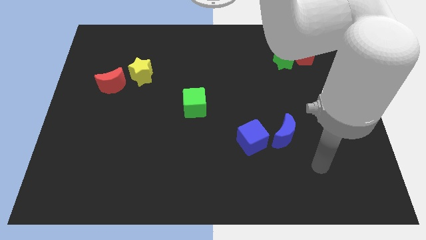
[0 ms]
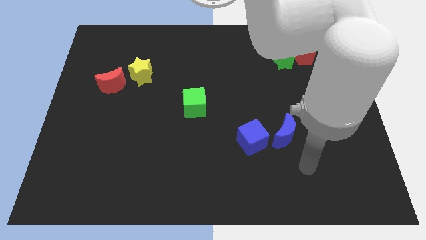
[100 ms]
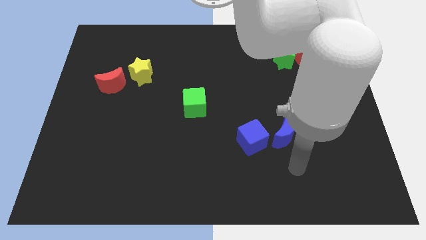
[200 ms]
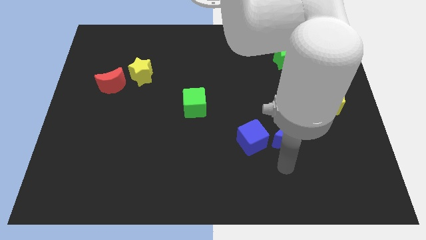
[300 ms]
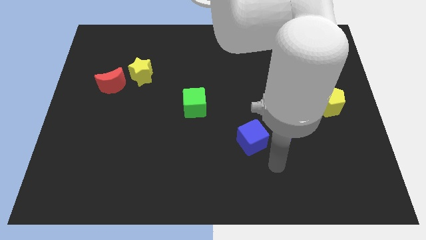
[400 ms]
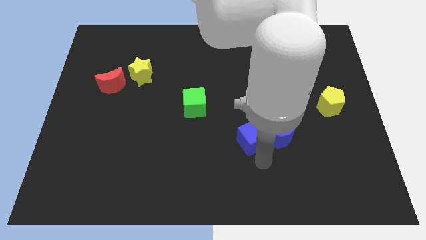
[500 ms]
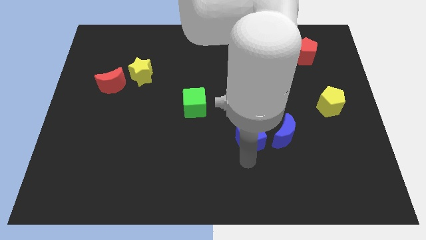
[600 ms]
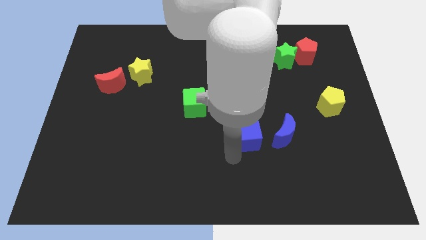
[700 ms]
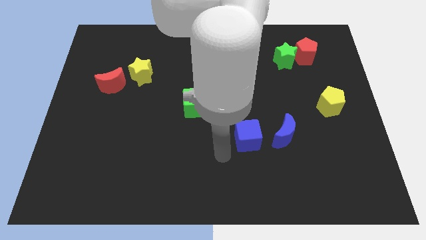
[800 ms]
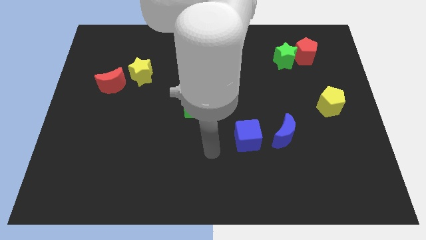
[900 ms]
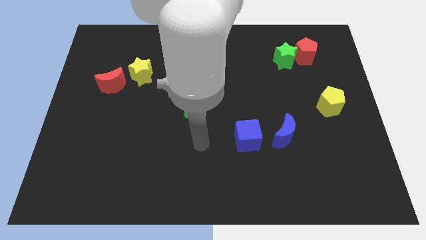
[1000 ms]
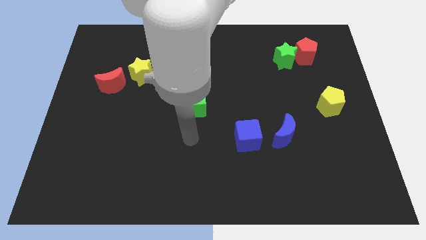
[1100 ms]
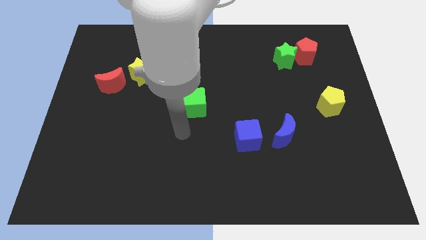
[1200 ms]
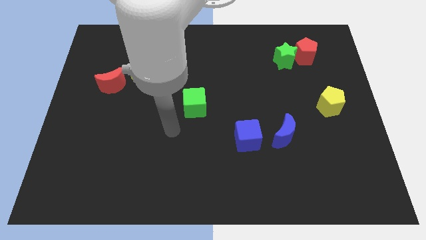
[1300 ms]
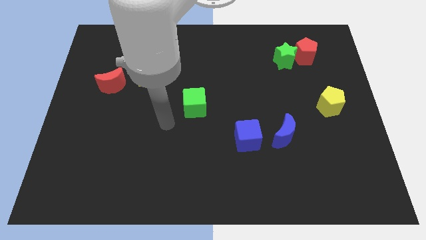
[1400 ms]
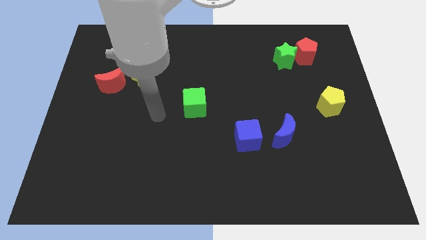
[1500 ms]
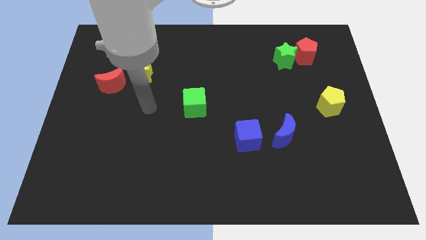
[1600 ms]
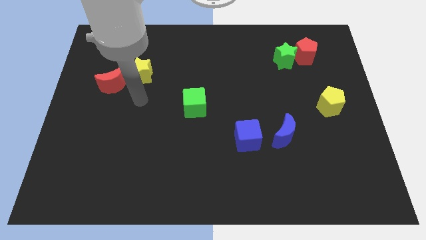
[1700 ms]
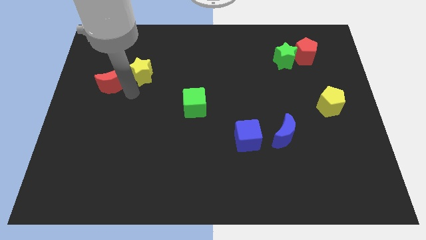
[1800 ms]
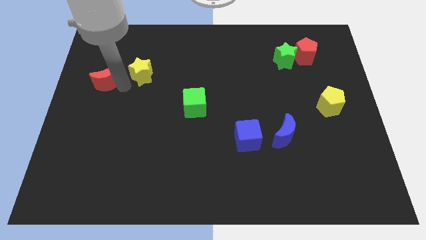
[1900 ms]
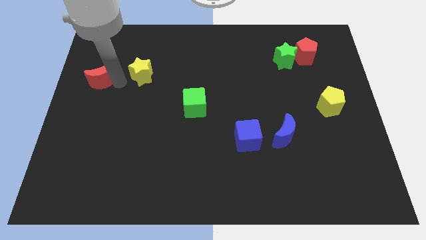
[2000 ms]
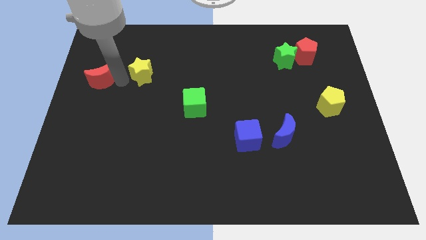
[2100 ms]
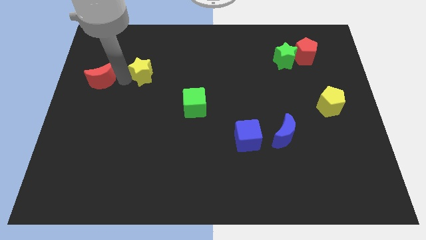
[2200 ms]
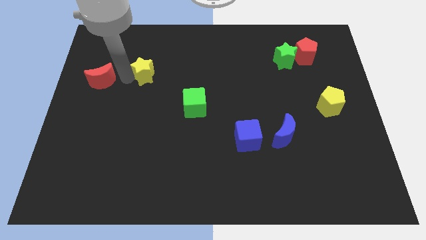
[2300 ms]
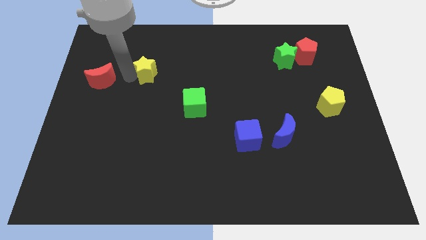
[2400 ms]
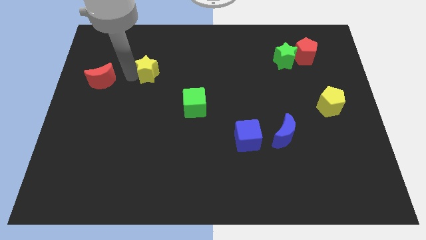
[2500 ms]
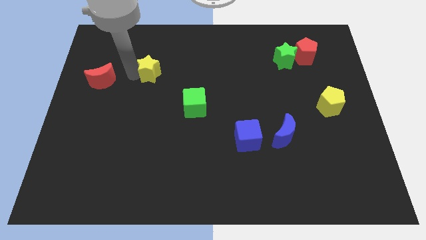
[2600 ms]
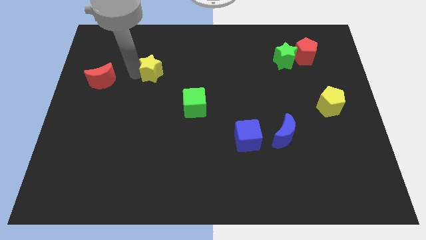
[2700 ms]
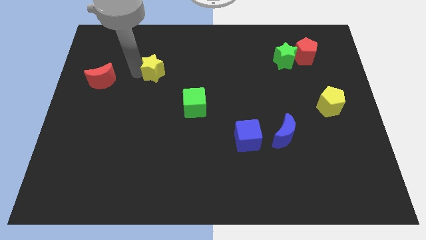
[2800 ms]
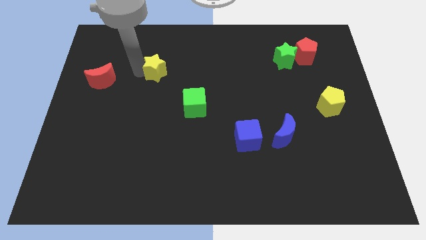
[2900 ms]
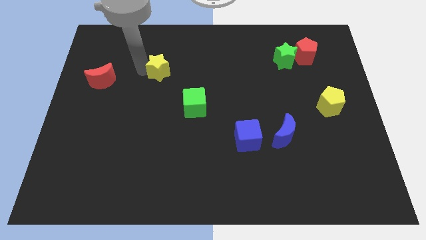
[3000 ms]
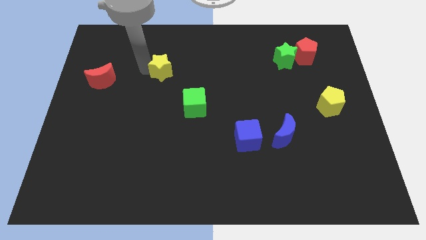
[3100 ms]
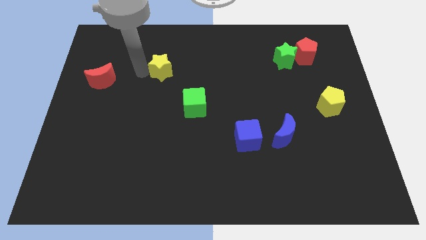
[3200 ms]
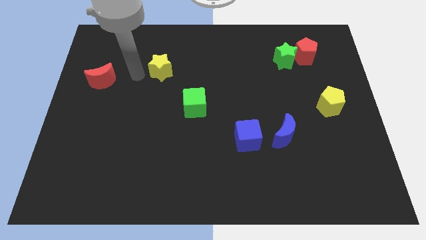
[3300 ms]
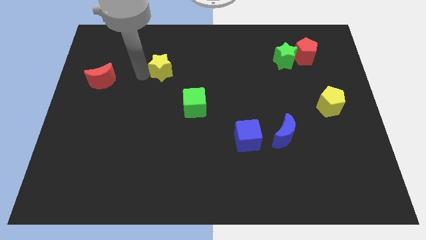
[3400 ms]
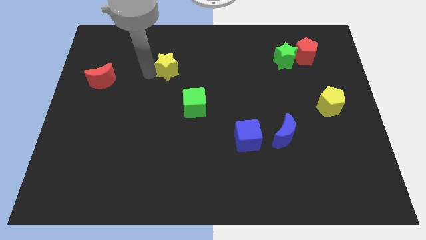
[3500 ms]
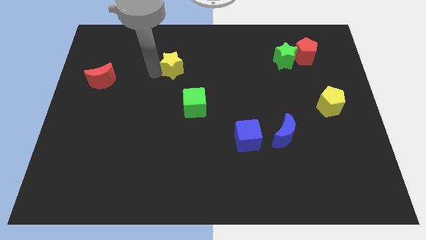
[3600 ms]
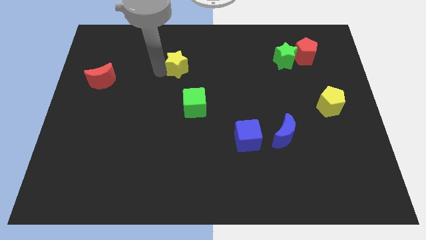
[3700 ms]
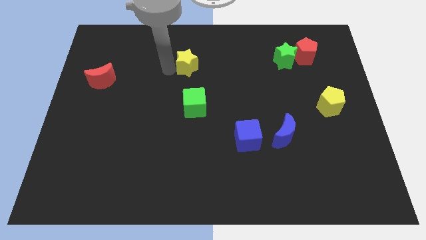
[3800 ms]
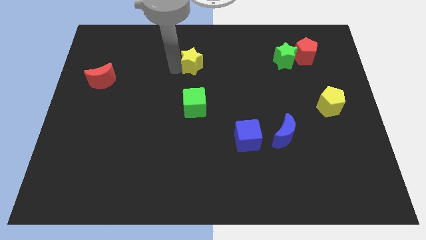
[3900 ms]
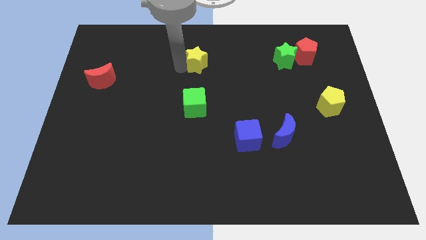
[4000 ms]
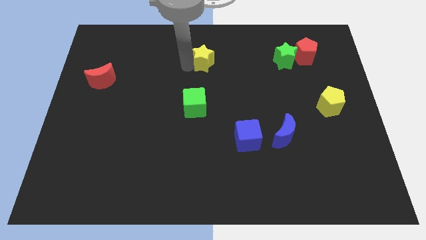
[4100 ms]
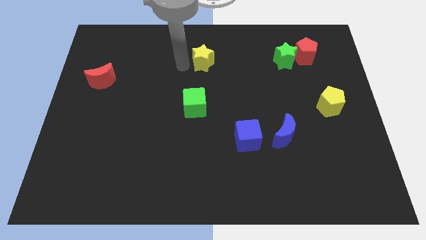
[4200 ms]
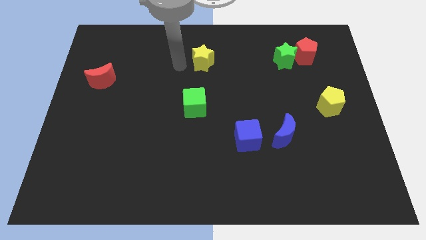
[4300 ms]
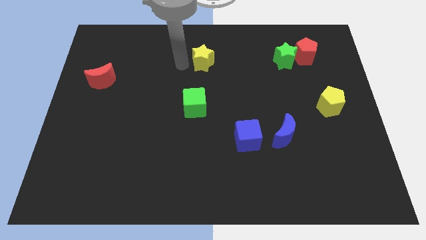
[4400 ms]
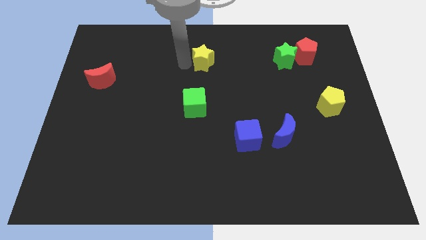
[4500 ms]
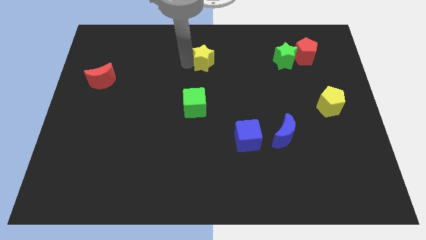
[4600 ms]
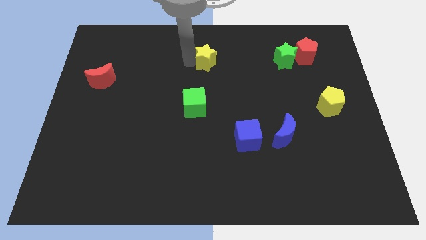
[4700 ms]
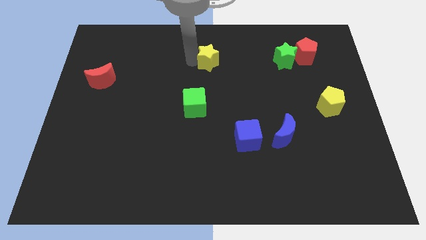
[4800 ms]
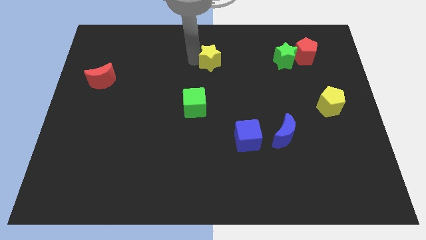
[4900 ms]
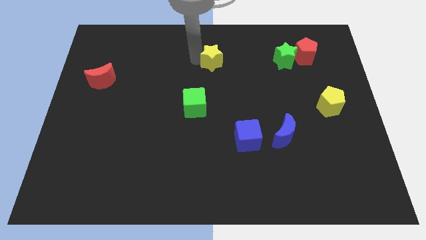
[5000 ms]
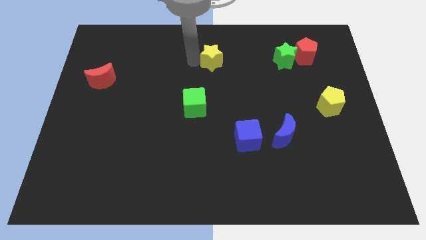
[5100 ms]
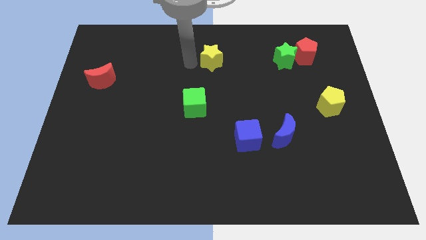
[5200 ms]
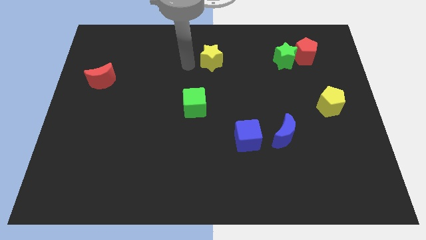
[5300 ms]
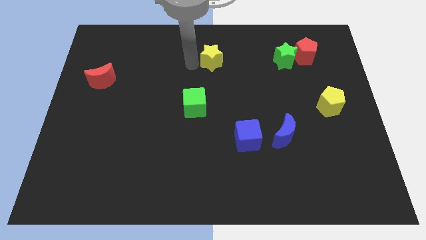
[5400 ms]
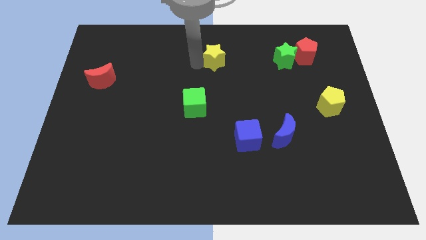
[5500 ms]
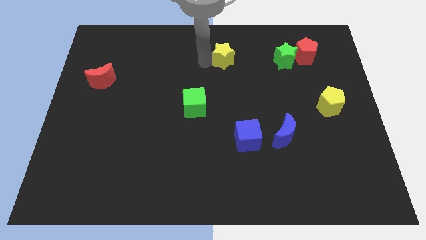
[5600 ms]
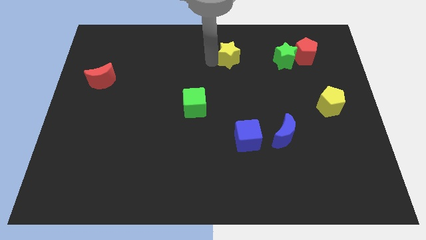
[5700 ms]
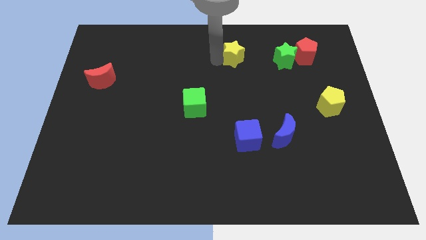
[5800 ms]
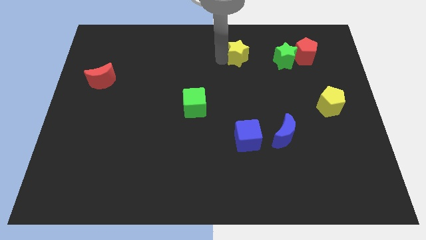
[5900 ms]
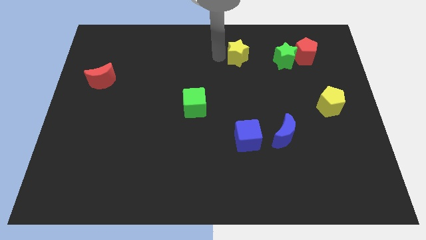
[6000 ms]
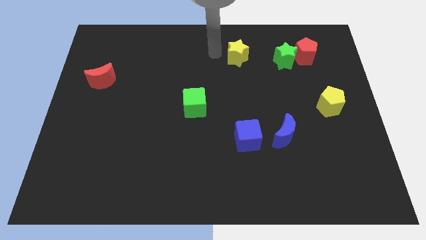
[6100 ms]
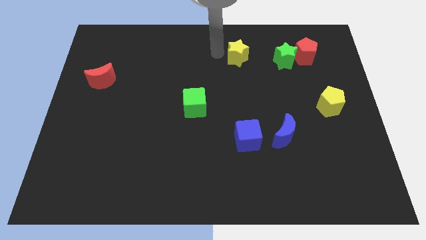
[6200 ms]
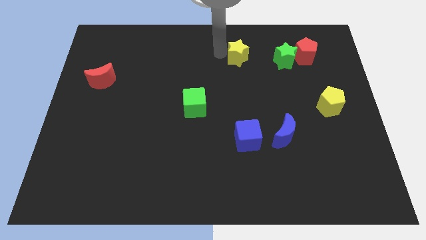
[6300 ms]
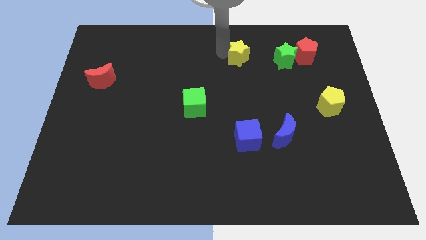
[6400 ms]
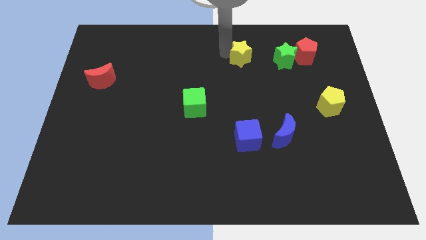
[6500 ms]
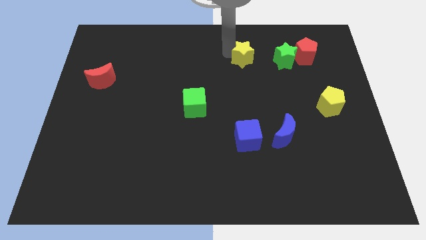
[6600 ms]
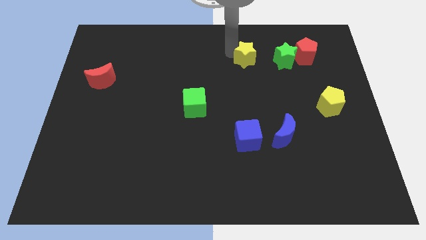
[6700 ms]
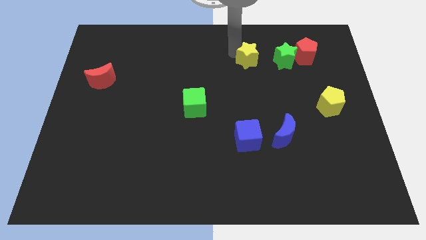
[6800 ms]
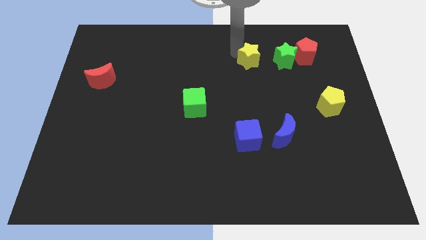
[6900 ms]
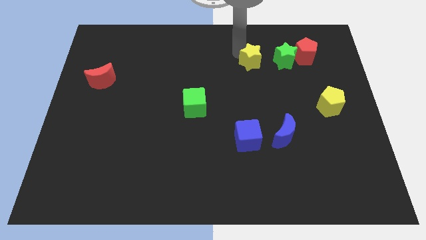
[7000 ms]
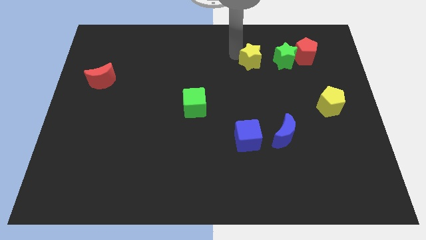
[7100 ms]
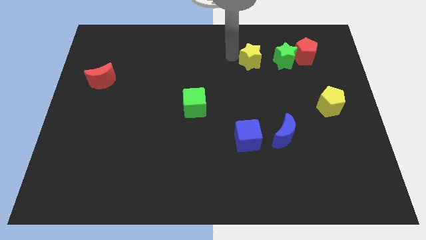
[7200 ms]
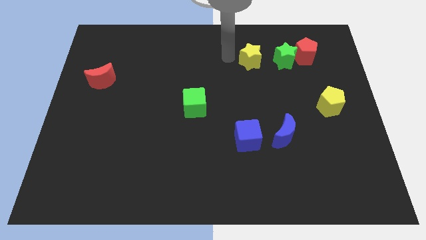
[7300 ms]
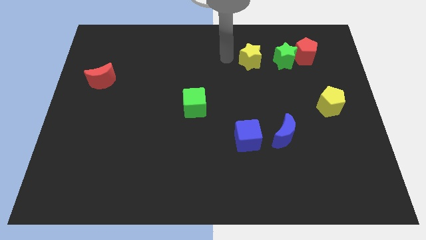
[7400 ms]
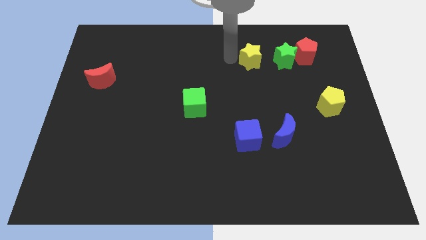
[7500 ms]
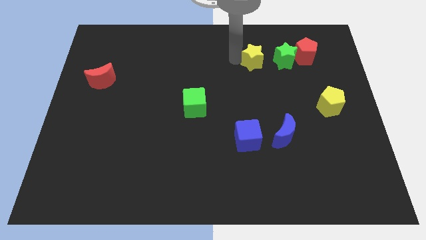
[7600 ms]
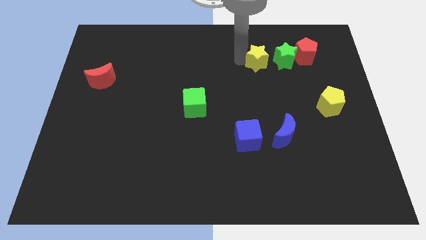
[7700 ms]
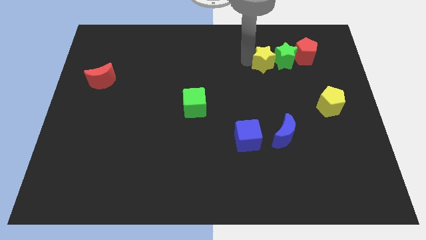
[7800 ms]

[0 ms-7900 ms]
slide the yellow star towards the green star
